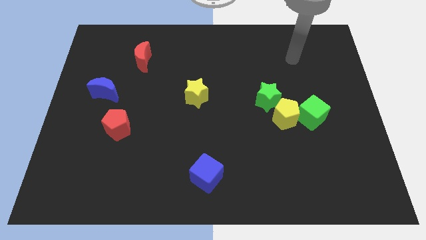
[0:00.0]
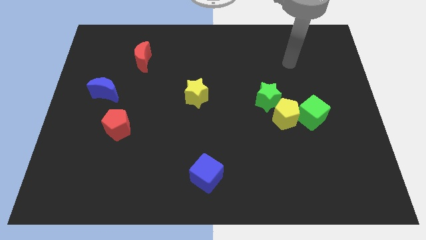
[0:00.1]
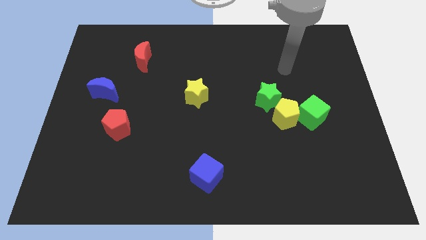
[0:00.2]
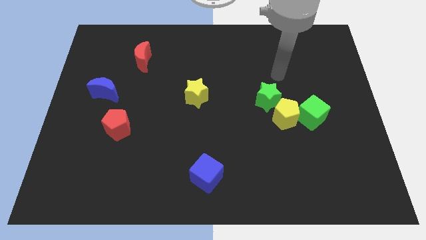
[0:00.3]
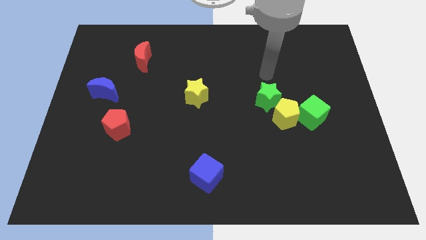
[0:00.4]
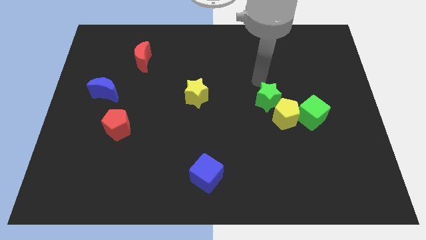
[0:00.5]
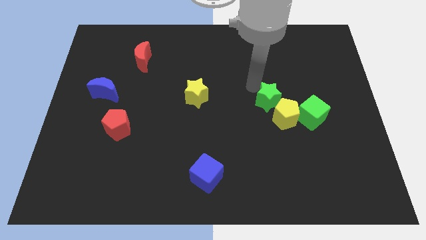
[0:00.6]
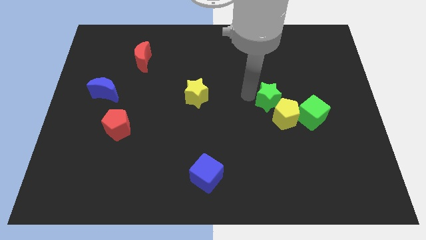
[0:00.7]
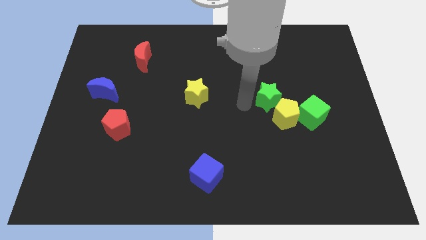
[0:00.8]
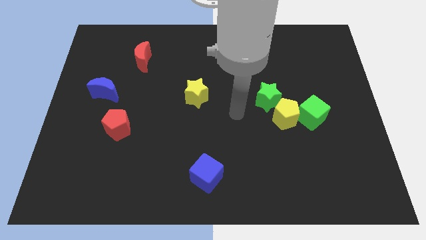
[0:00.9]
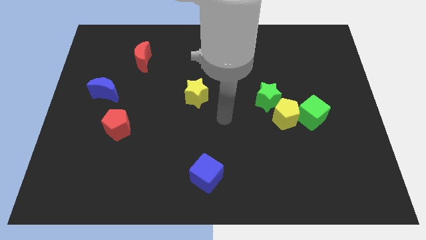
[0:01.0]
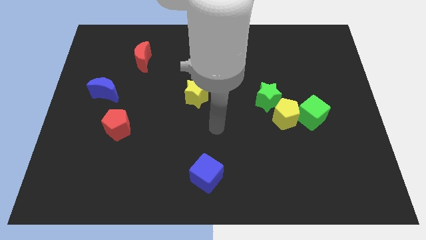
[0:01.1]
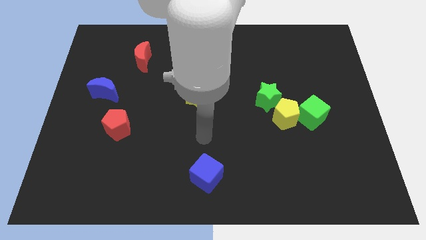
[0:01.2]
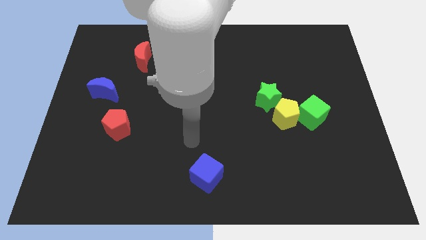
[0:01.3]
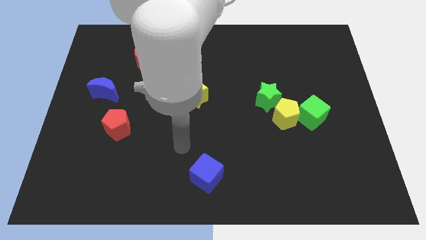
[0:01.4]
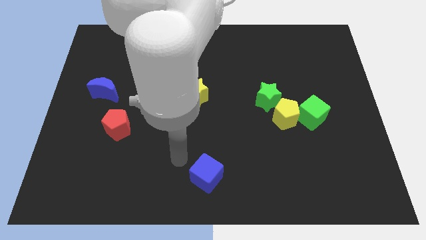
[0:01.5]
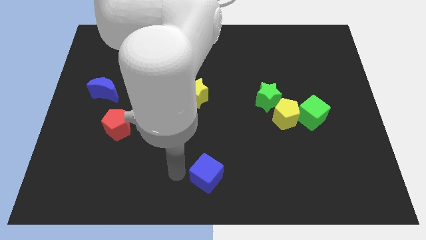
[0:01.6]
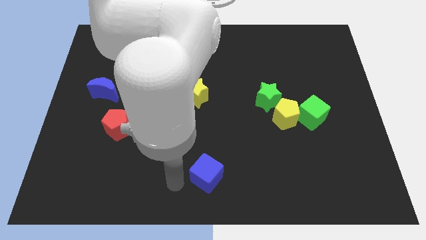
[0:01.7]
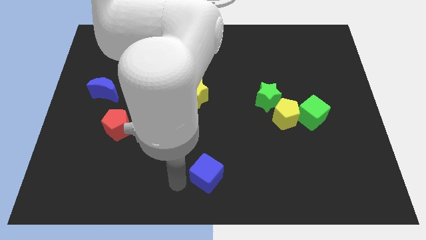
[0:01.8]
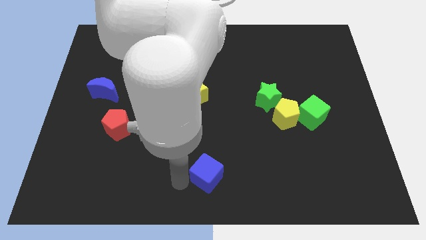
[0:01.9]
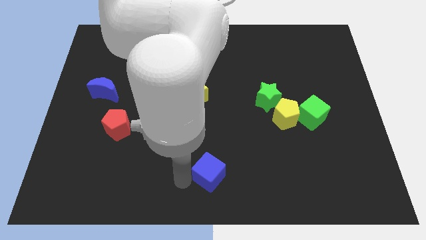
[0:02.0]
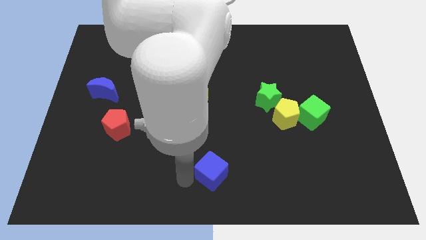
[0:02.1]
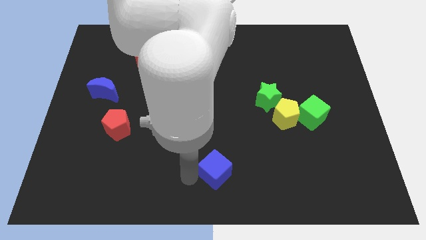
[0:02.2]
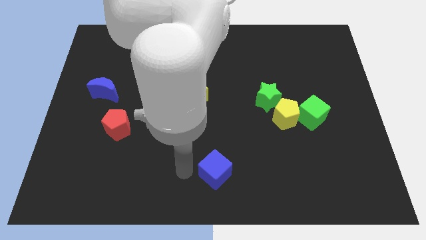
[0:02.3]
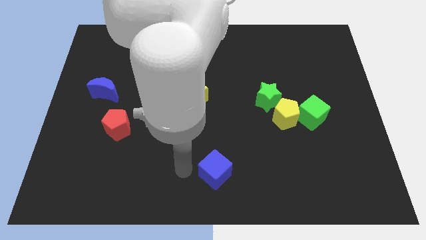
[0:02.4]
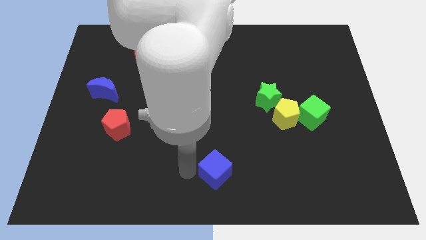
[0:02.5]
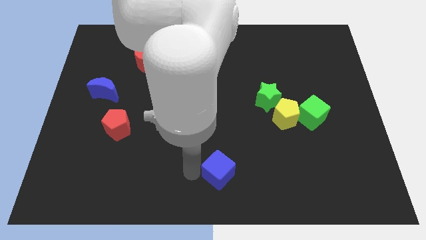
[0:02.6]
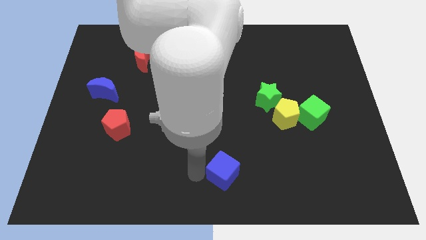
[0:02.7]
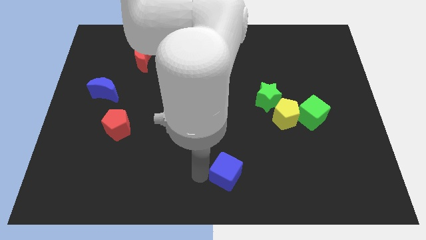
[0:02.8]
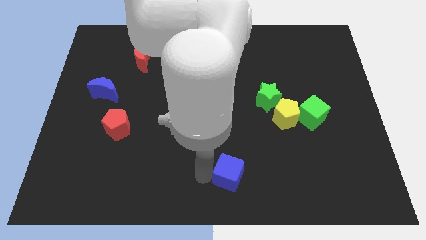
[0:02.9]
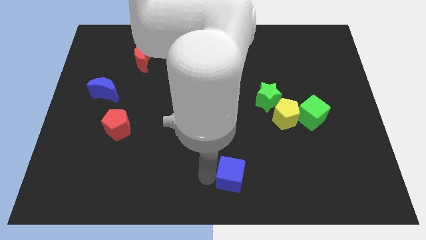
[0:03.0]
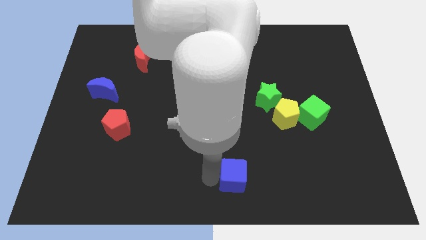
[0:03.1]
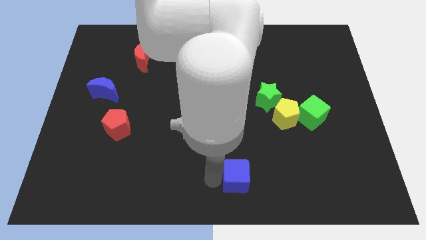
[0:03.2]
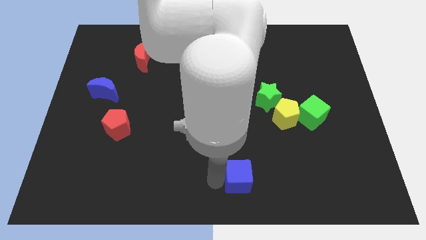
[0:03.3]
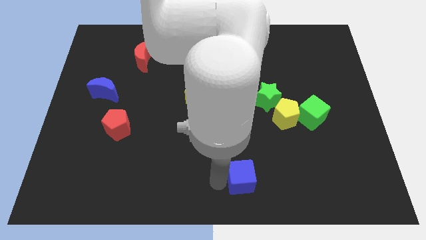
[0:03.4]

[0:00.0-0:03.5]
slide the blue cube a little to the right

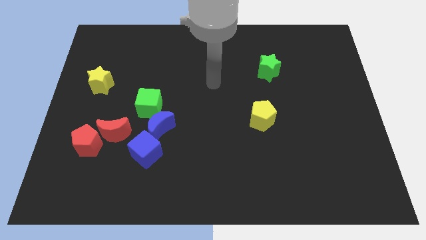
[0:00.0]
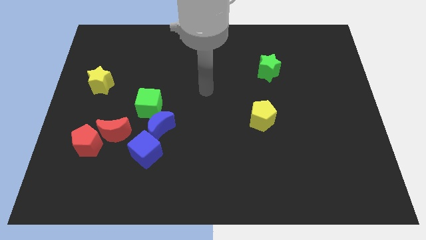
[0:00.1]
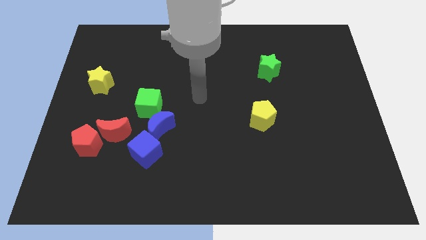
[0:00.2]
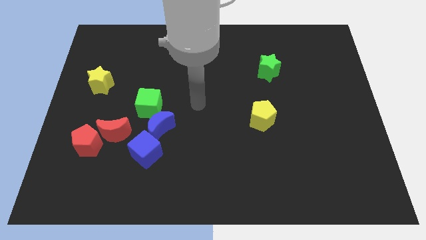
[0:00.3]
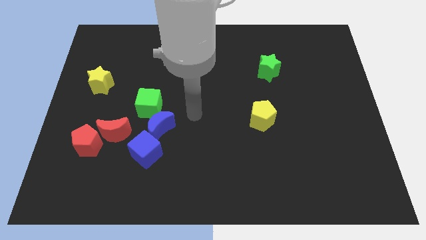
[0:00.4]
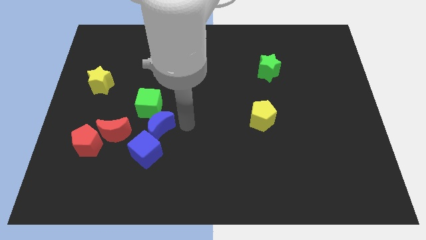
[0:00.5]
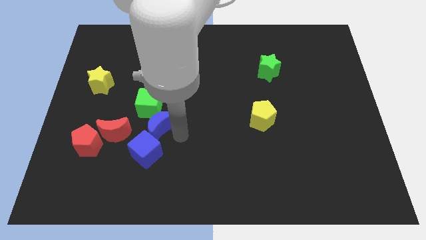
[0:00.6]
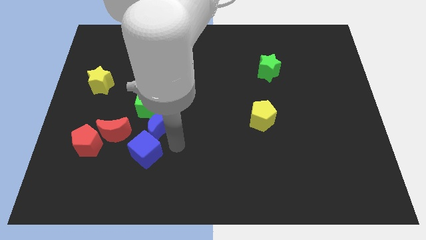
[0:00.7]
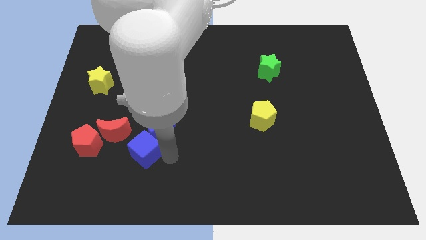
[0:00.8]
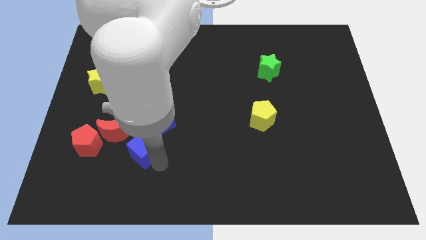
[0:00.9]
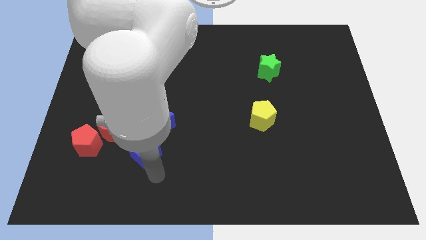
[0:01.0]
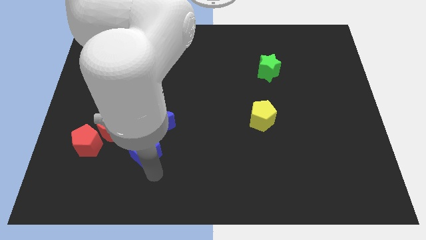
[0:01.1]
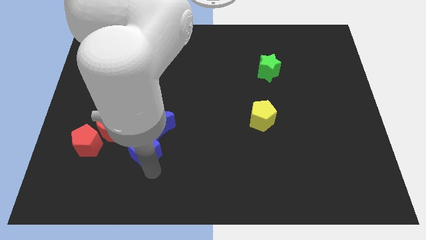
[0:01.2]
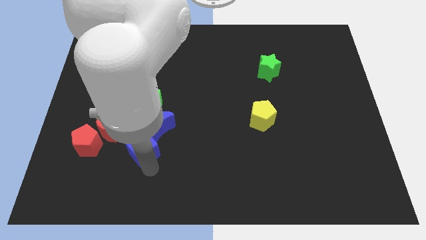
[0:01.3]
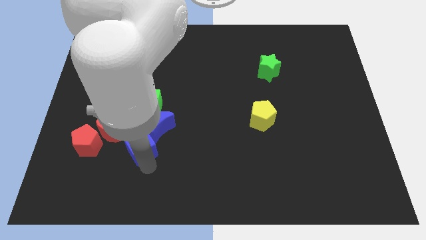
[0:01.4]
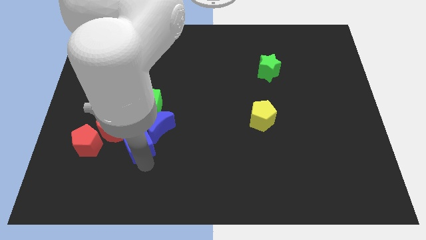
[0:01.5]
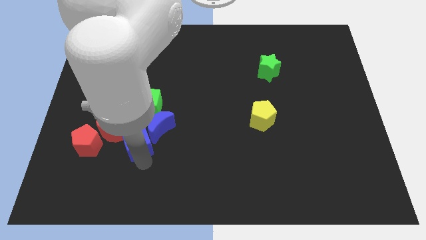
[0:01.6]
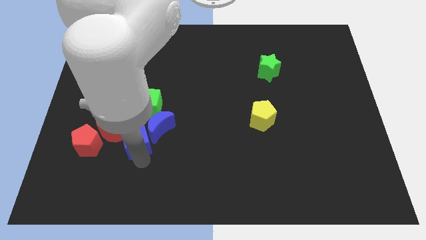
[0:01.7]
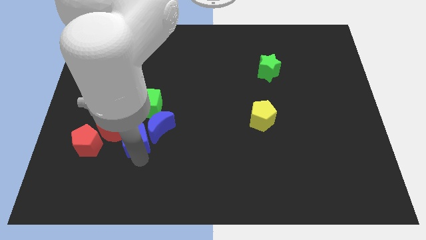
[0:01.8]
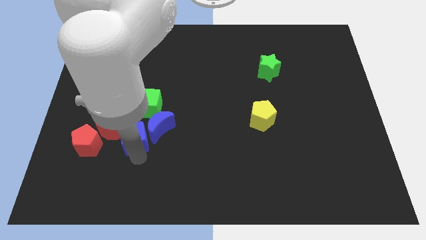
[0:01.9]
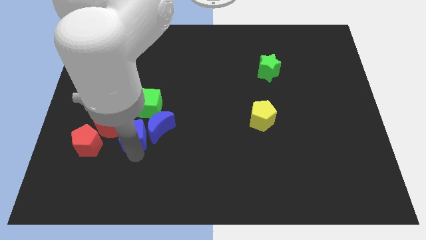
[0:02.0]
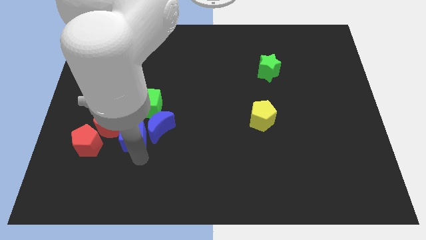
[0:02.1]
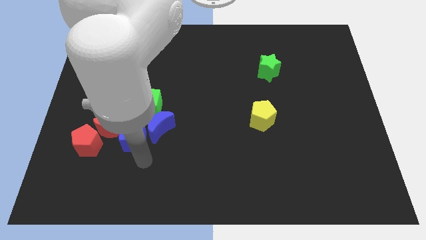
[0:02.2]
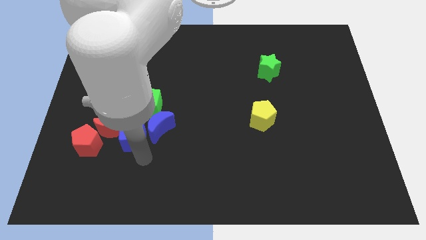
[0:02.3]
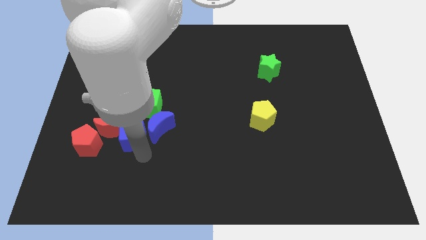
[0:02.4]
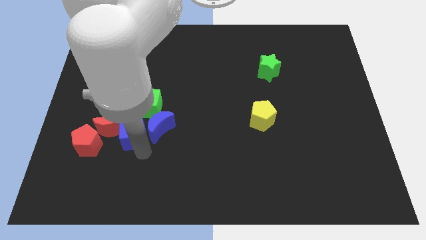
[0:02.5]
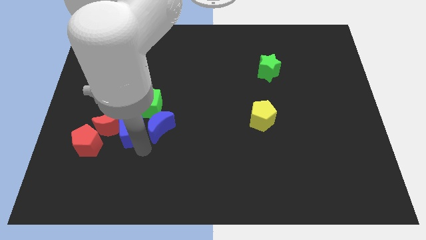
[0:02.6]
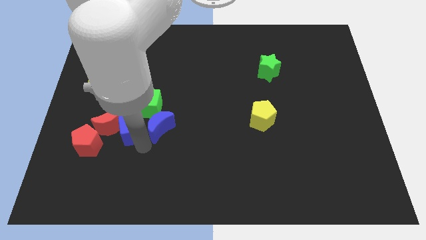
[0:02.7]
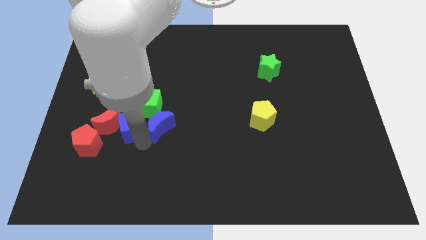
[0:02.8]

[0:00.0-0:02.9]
move the blue cube up and left diagonally a little

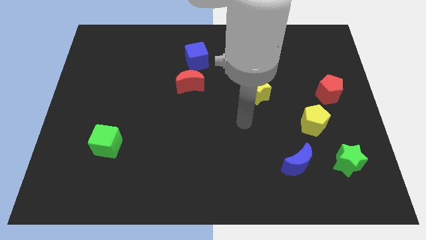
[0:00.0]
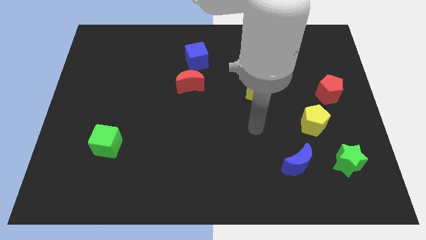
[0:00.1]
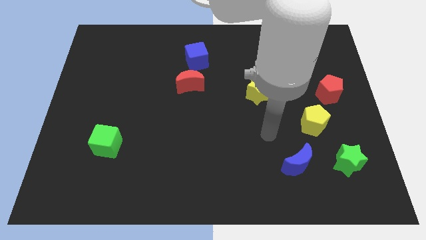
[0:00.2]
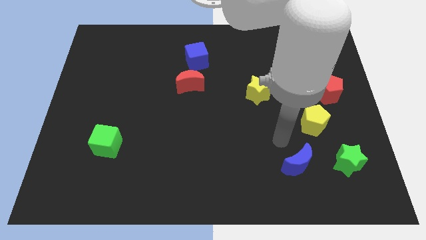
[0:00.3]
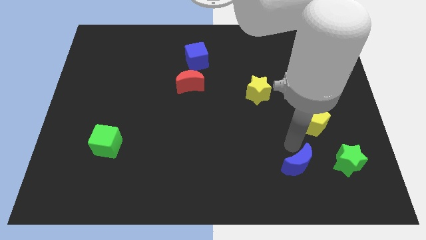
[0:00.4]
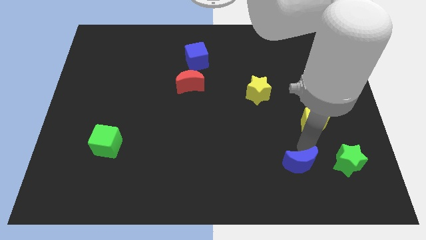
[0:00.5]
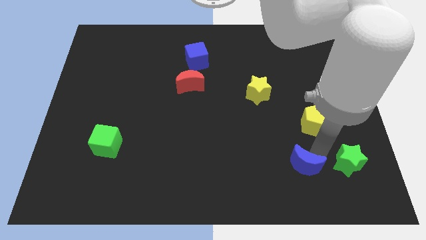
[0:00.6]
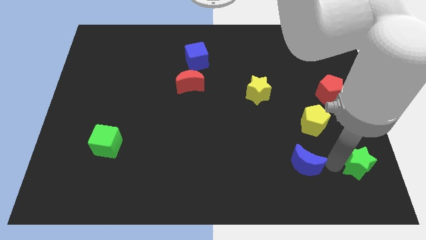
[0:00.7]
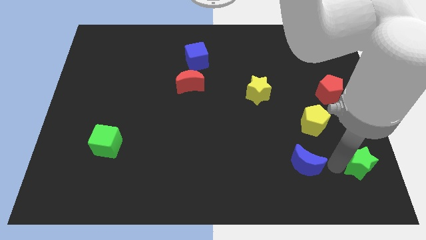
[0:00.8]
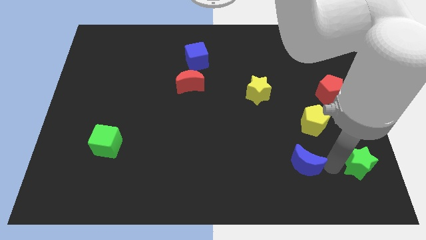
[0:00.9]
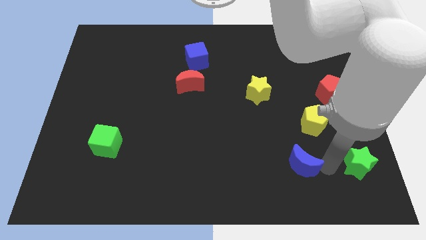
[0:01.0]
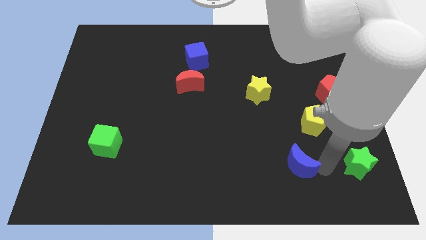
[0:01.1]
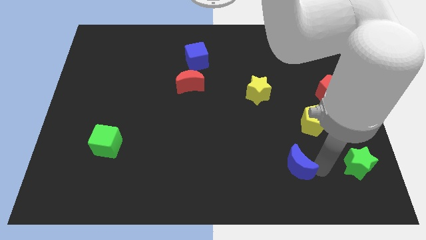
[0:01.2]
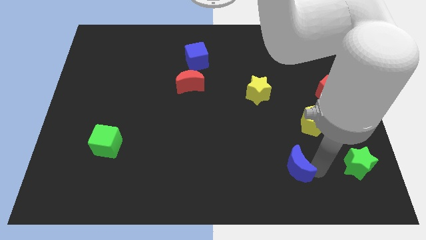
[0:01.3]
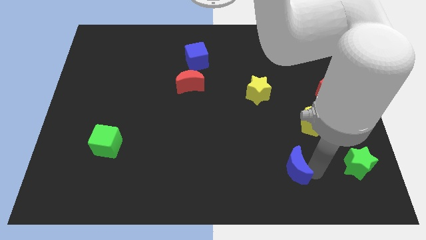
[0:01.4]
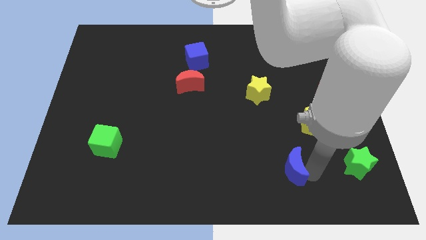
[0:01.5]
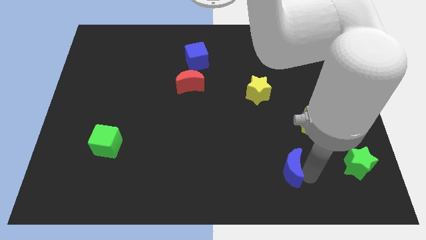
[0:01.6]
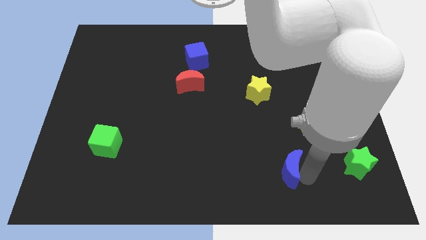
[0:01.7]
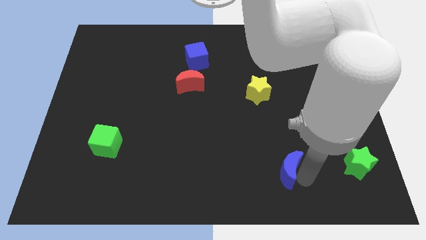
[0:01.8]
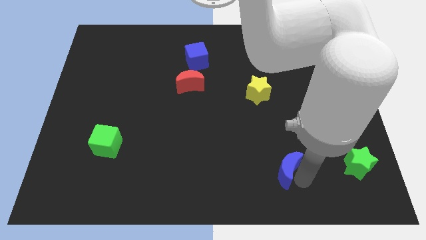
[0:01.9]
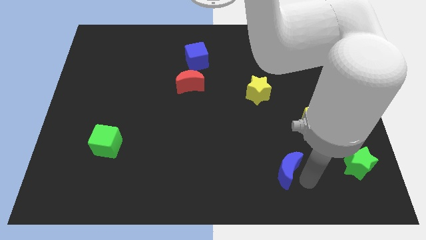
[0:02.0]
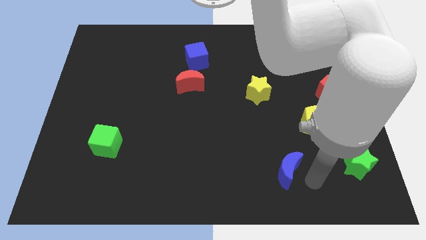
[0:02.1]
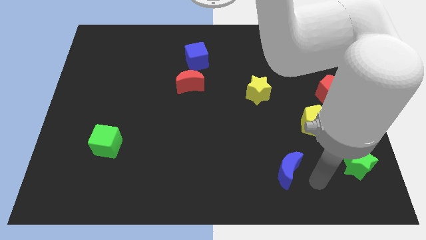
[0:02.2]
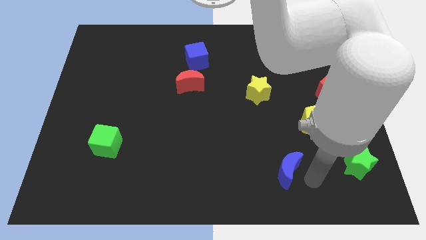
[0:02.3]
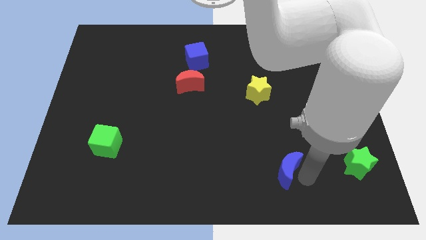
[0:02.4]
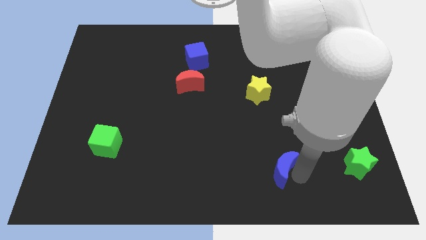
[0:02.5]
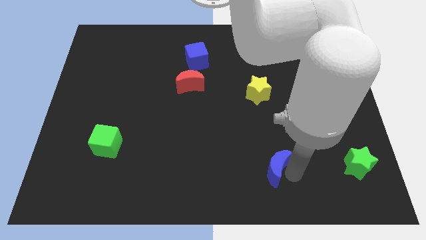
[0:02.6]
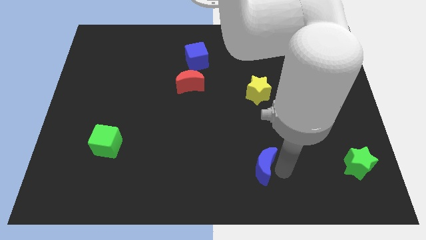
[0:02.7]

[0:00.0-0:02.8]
slightly push the blue moon left
